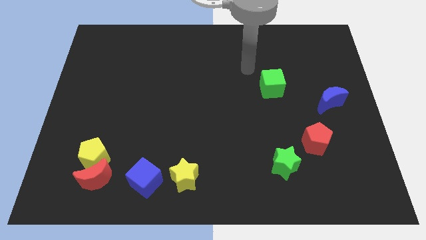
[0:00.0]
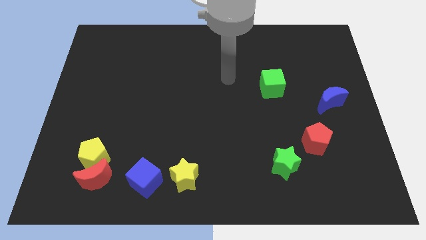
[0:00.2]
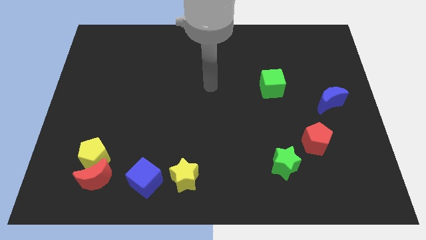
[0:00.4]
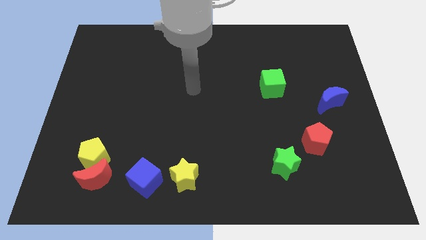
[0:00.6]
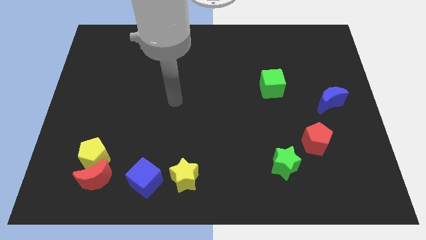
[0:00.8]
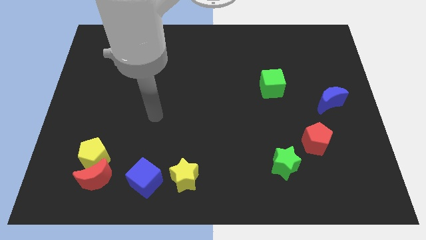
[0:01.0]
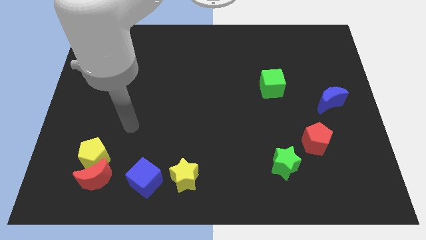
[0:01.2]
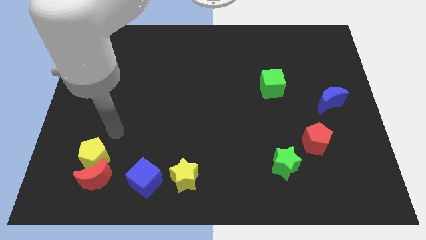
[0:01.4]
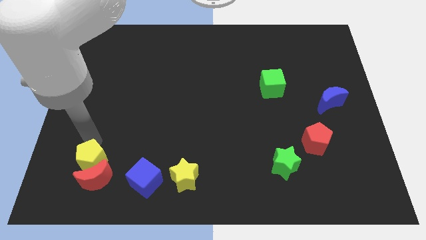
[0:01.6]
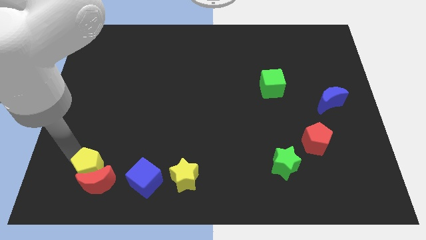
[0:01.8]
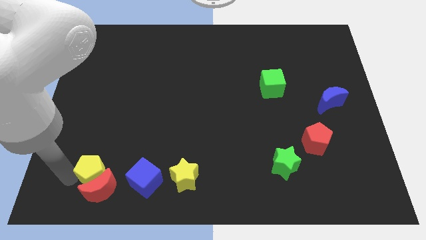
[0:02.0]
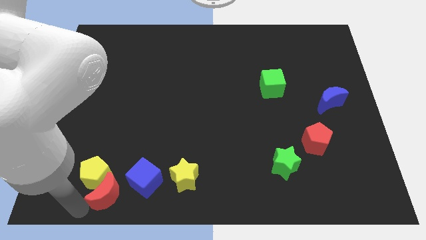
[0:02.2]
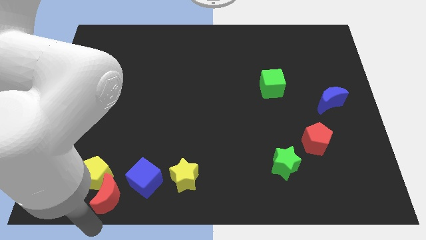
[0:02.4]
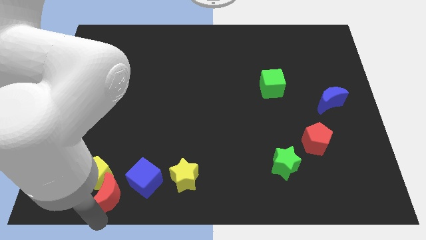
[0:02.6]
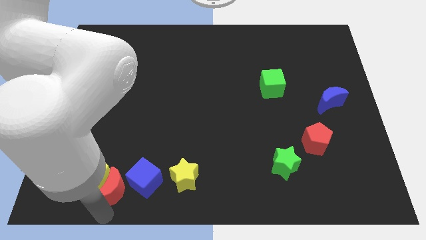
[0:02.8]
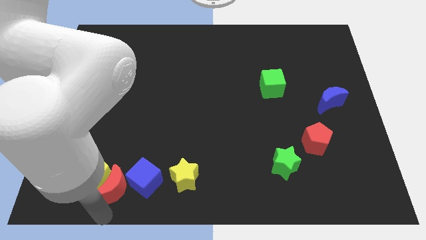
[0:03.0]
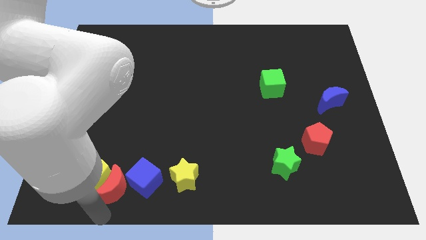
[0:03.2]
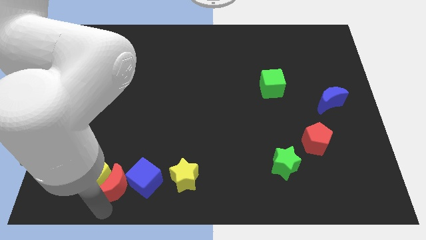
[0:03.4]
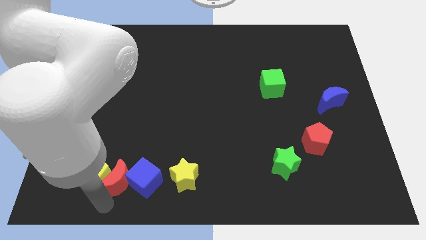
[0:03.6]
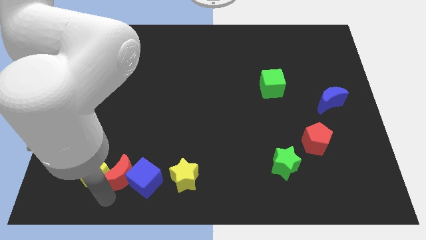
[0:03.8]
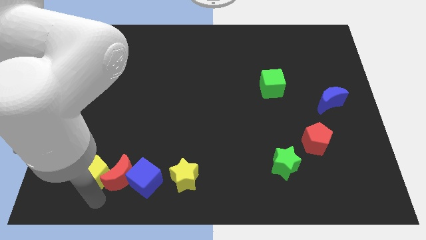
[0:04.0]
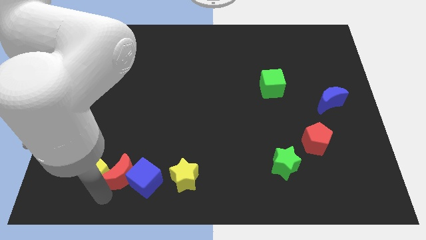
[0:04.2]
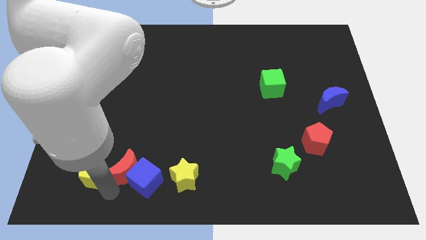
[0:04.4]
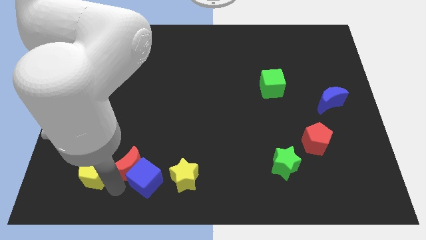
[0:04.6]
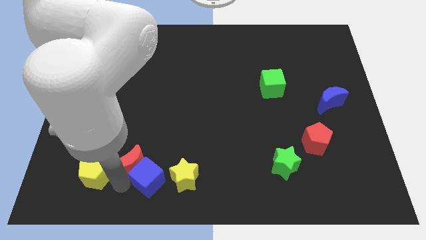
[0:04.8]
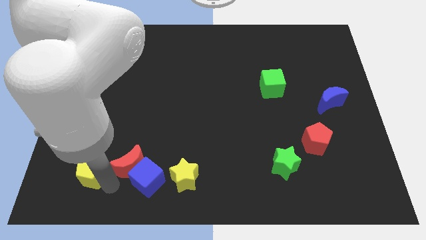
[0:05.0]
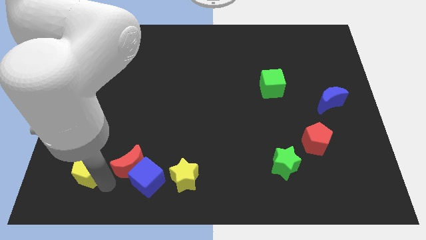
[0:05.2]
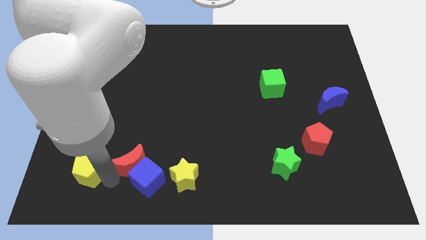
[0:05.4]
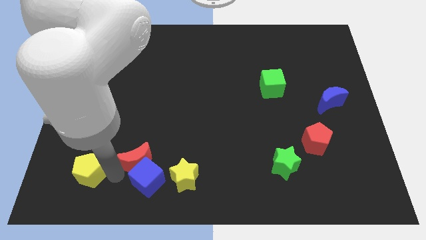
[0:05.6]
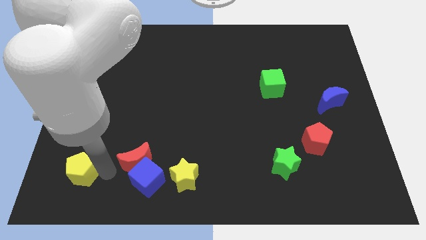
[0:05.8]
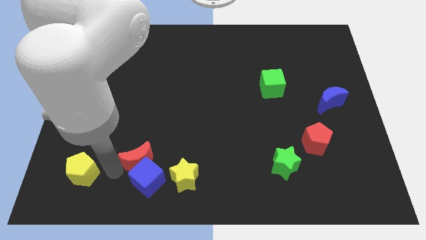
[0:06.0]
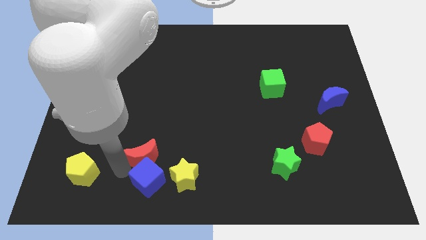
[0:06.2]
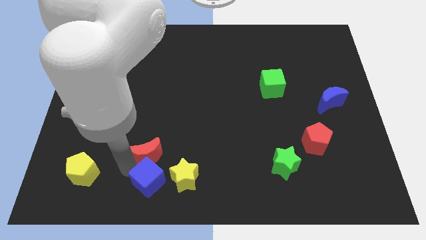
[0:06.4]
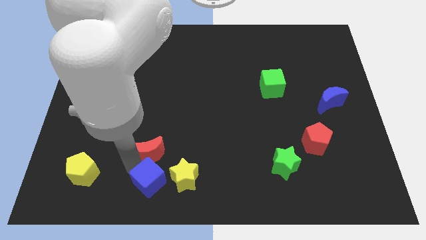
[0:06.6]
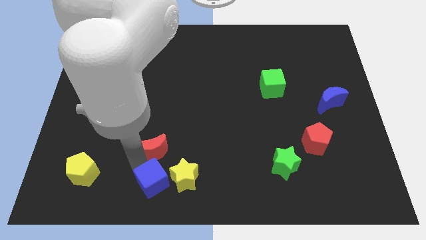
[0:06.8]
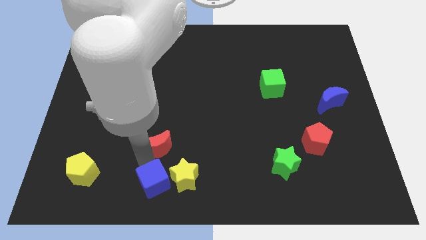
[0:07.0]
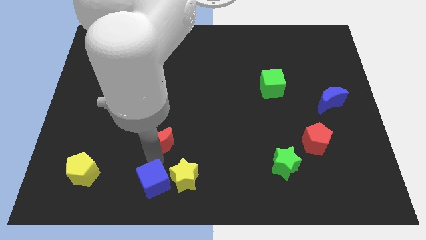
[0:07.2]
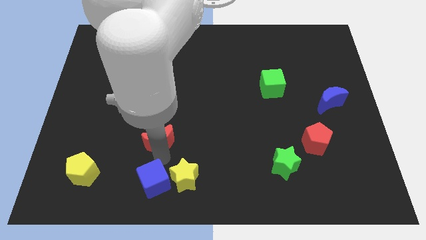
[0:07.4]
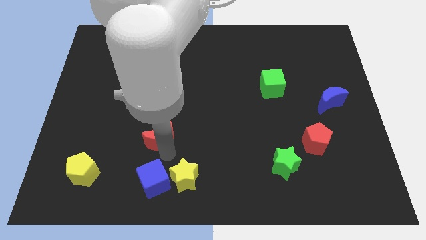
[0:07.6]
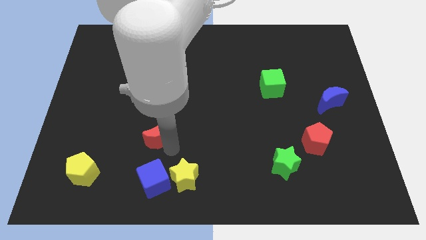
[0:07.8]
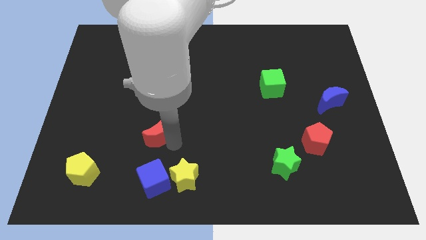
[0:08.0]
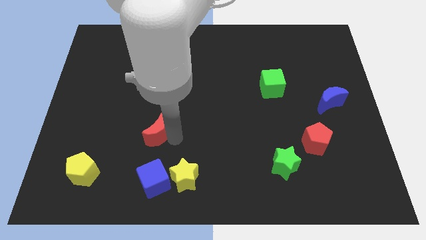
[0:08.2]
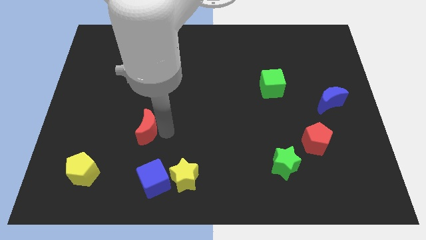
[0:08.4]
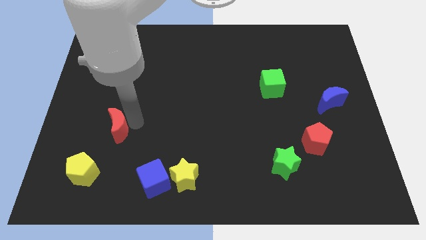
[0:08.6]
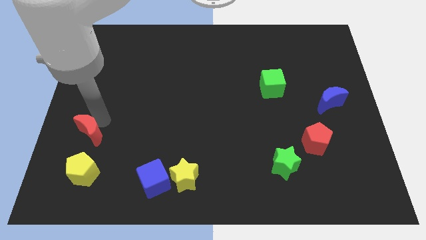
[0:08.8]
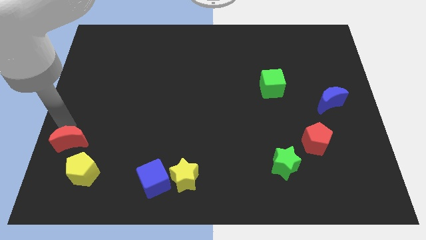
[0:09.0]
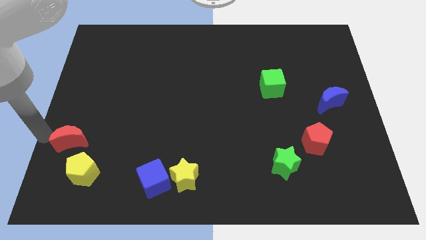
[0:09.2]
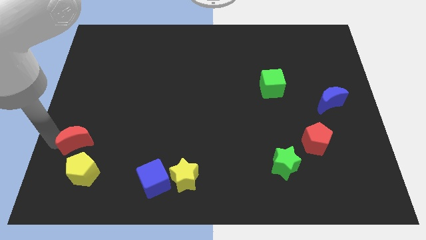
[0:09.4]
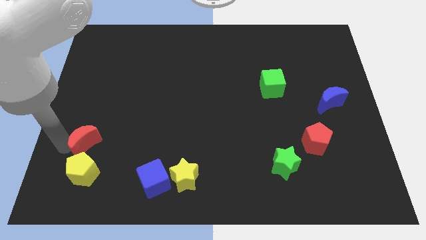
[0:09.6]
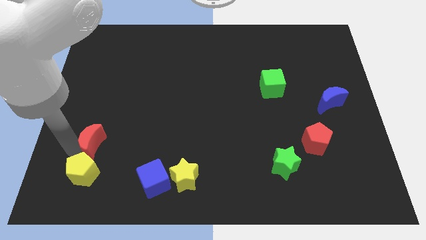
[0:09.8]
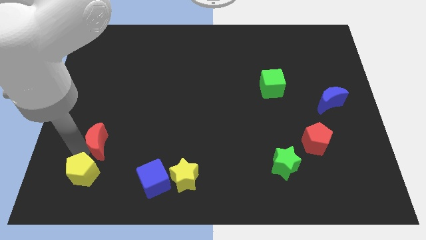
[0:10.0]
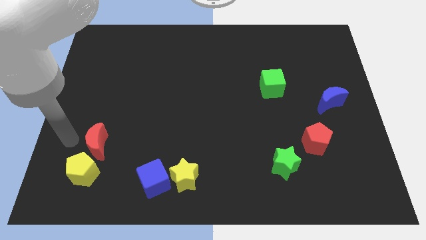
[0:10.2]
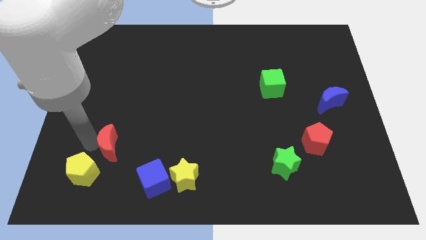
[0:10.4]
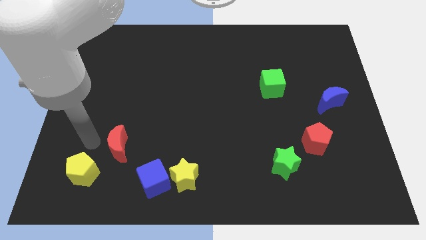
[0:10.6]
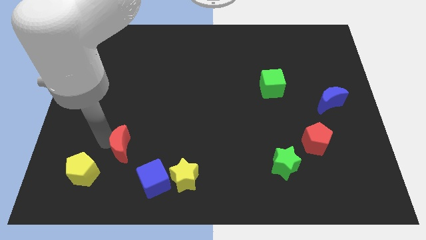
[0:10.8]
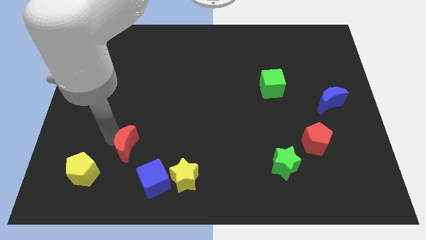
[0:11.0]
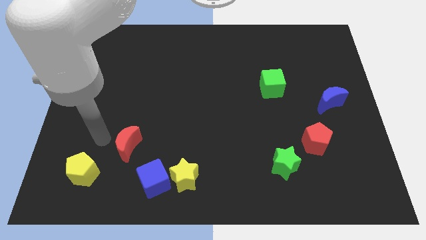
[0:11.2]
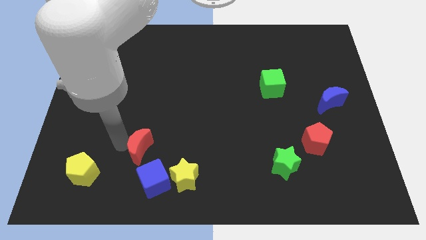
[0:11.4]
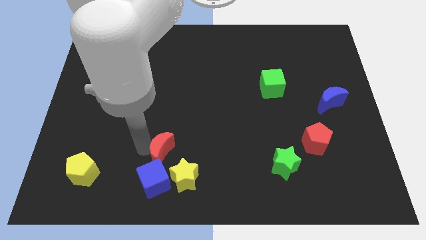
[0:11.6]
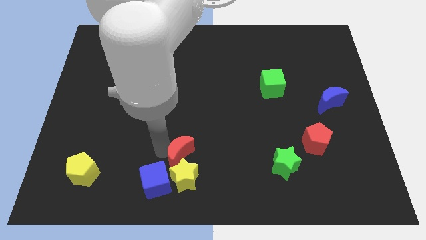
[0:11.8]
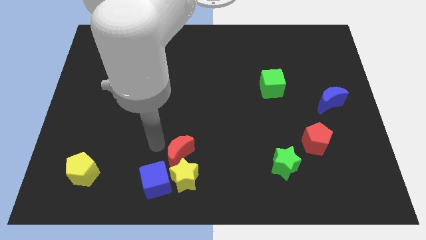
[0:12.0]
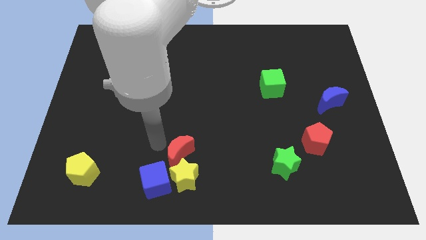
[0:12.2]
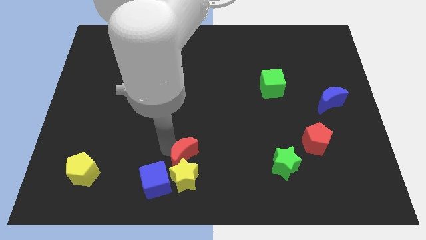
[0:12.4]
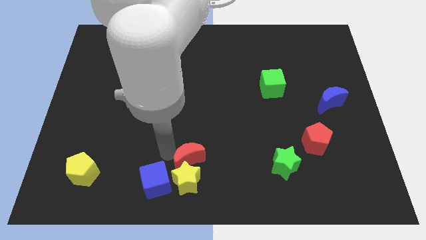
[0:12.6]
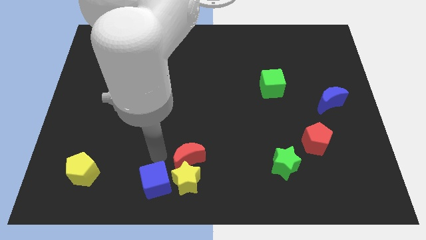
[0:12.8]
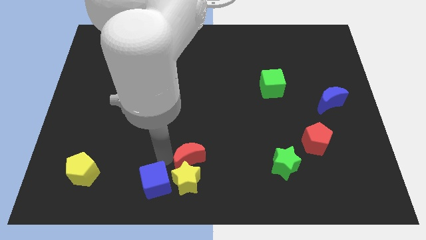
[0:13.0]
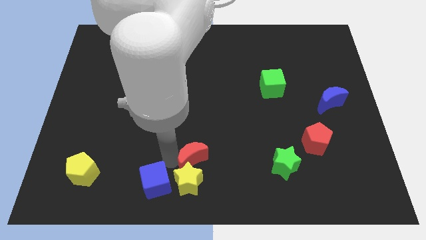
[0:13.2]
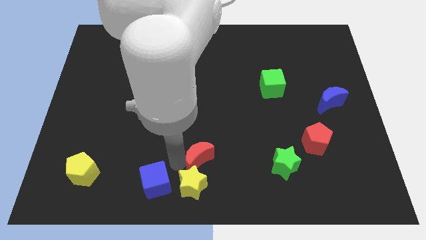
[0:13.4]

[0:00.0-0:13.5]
slide the red moon right

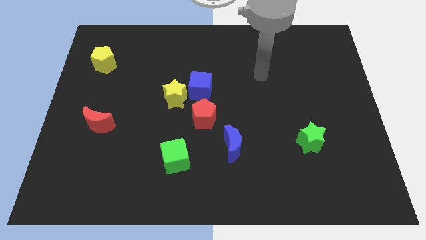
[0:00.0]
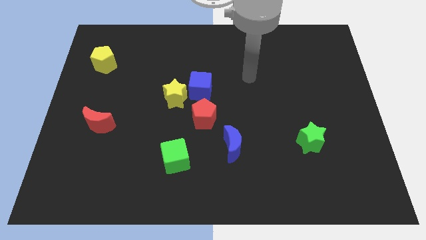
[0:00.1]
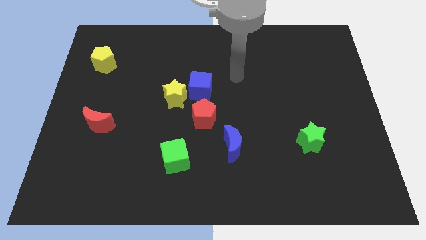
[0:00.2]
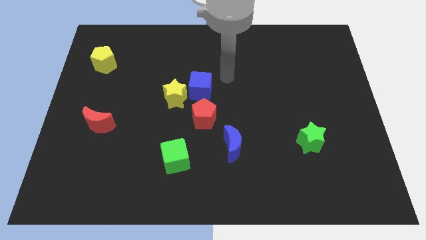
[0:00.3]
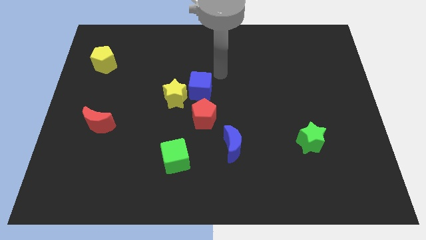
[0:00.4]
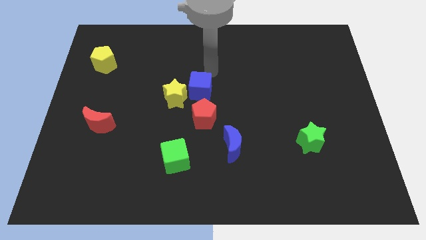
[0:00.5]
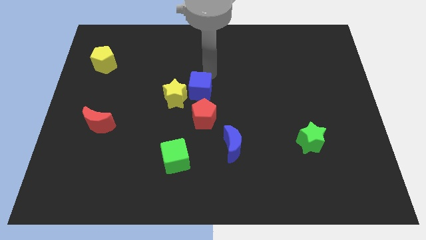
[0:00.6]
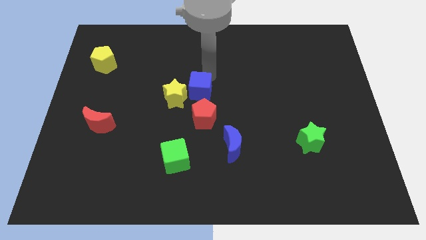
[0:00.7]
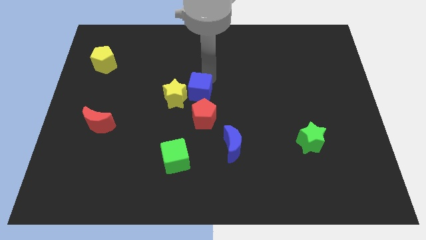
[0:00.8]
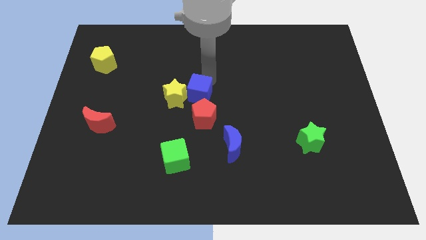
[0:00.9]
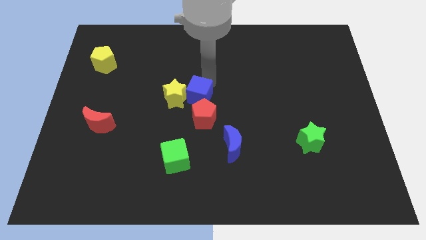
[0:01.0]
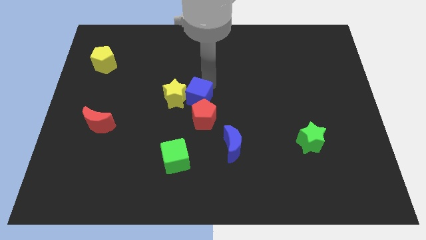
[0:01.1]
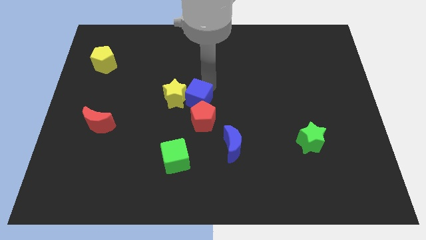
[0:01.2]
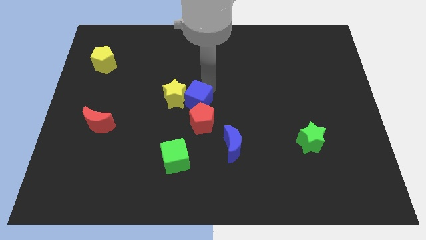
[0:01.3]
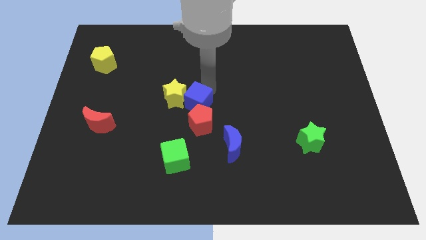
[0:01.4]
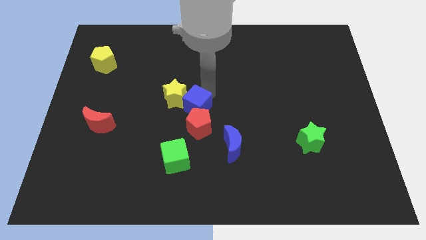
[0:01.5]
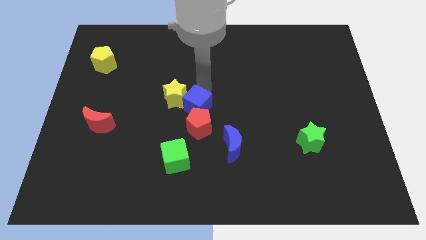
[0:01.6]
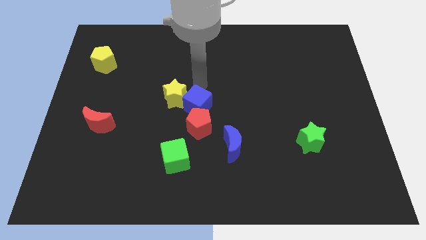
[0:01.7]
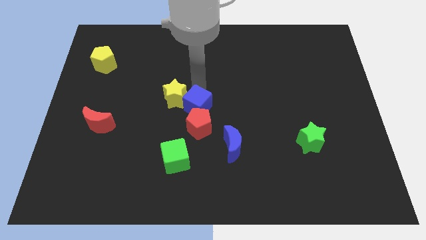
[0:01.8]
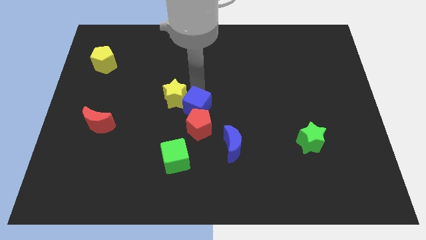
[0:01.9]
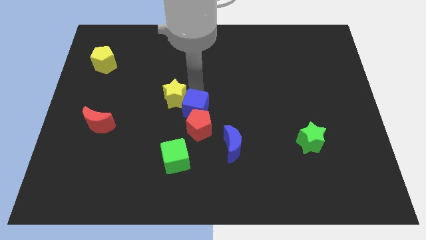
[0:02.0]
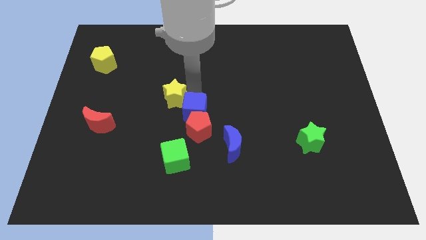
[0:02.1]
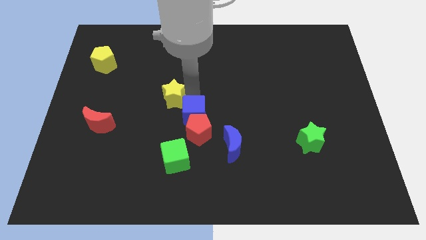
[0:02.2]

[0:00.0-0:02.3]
slightly push the blue cube down
